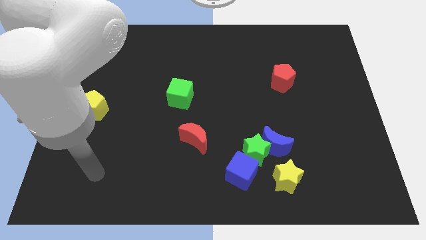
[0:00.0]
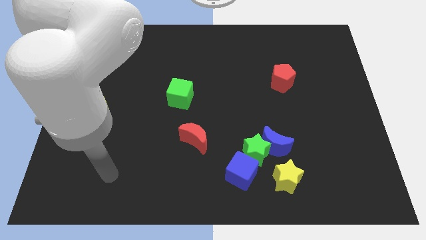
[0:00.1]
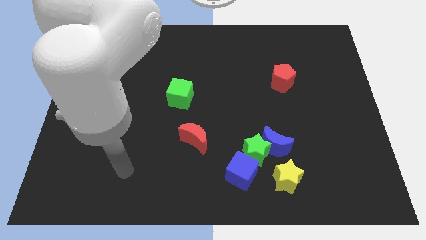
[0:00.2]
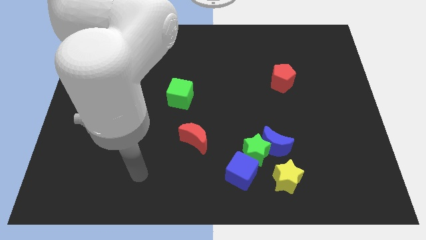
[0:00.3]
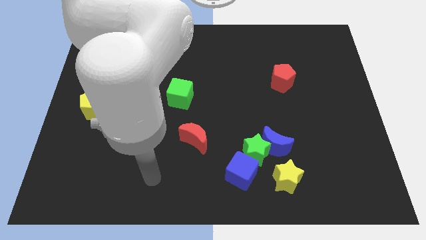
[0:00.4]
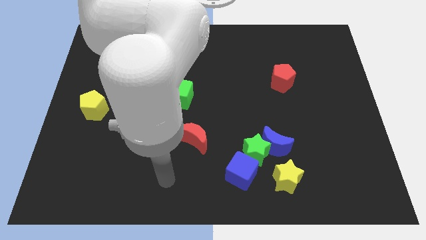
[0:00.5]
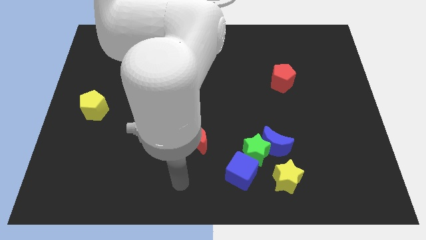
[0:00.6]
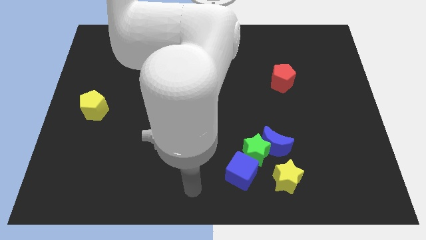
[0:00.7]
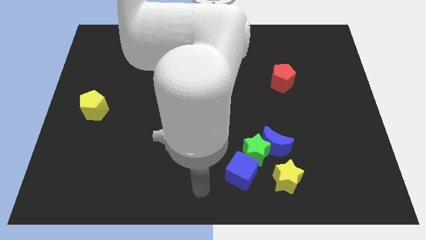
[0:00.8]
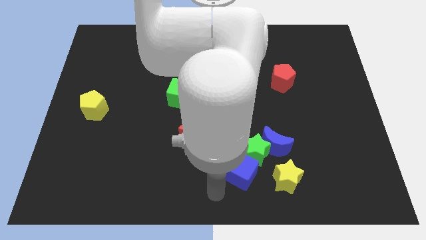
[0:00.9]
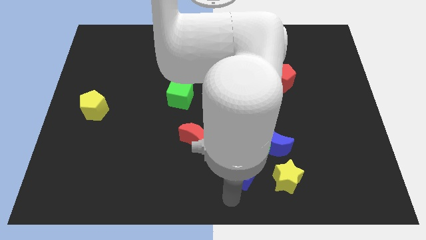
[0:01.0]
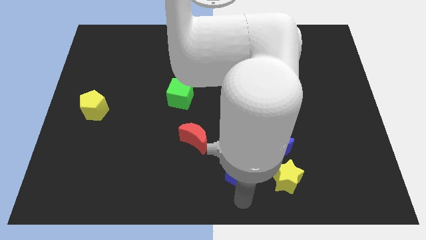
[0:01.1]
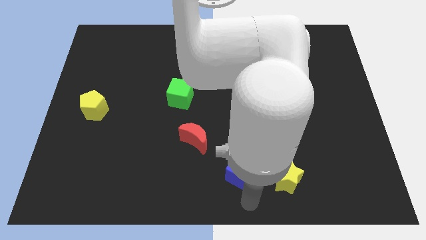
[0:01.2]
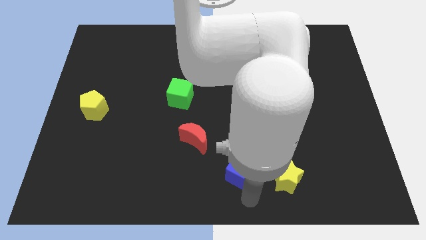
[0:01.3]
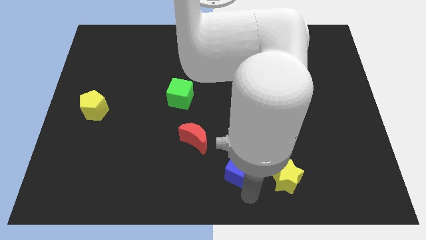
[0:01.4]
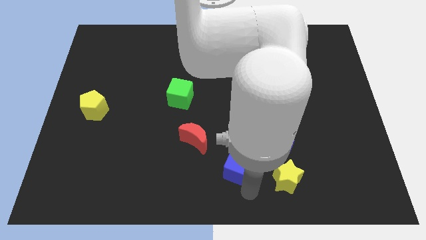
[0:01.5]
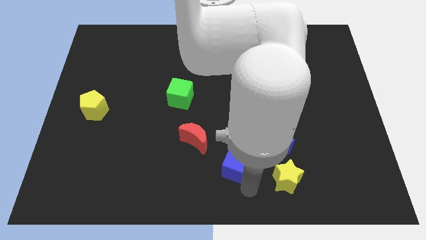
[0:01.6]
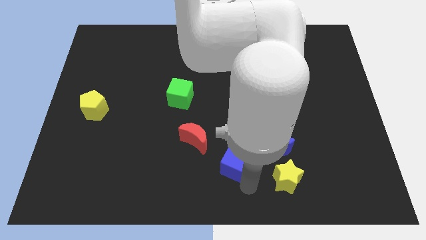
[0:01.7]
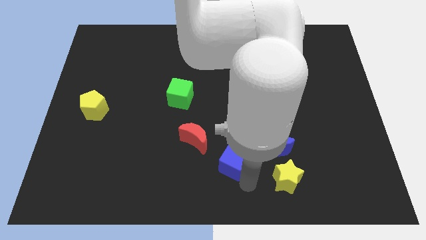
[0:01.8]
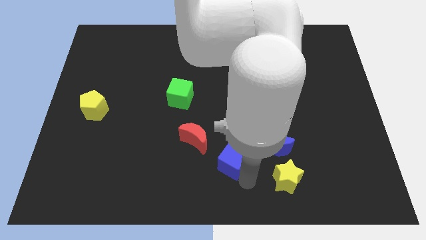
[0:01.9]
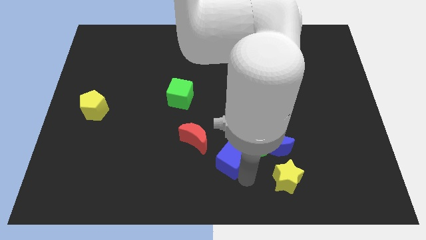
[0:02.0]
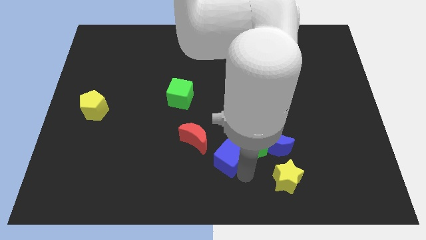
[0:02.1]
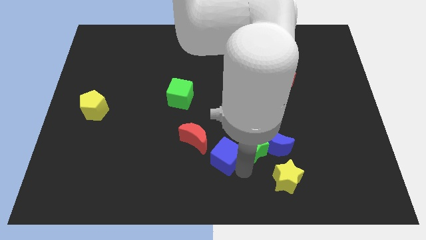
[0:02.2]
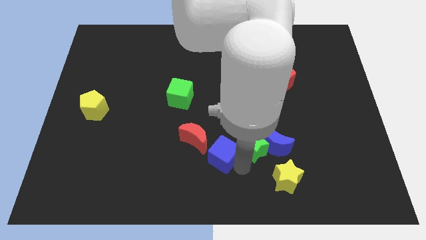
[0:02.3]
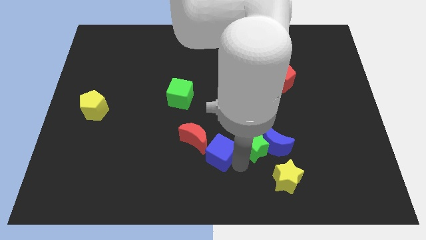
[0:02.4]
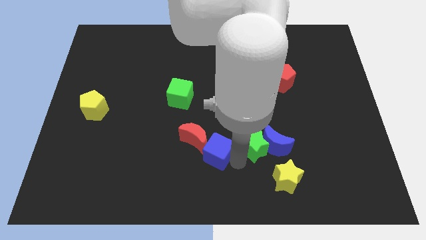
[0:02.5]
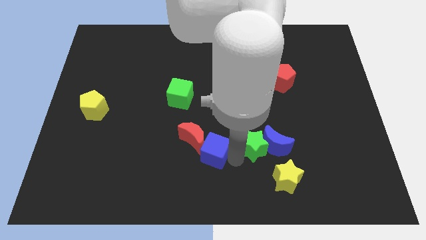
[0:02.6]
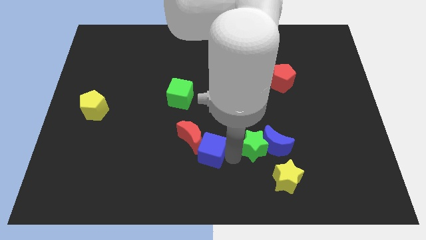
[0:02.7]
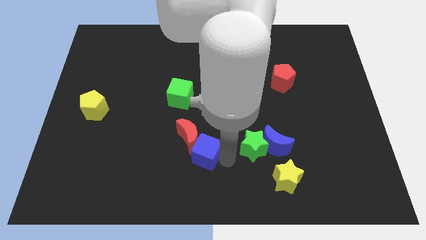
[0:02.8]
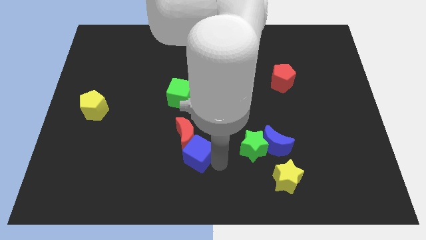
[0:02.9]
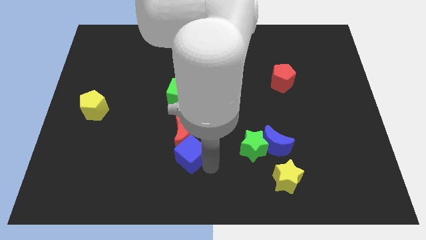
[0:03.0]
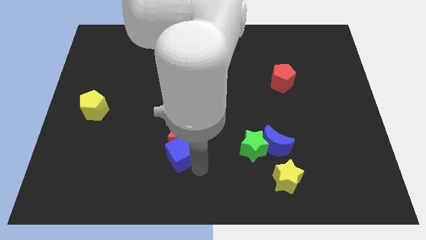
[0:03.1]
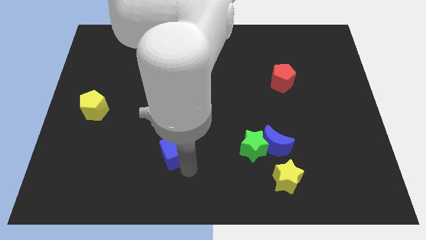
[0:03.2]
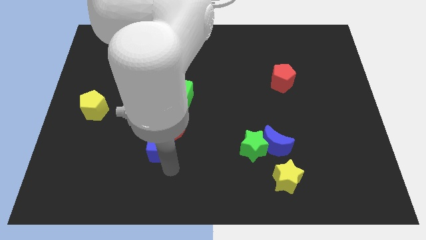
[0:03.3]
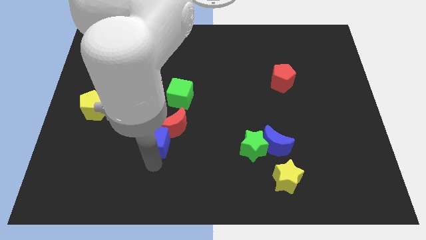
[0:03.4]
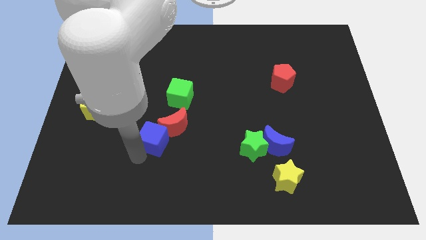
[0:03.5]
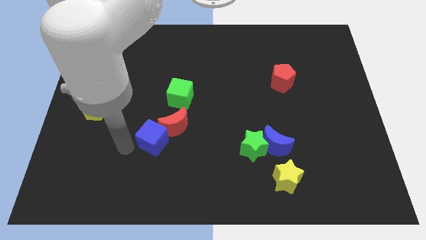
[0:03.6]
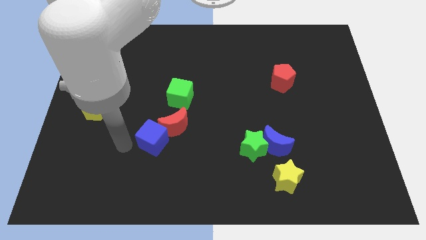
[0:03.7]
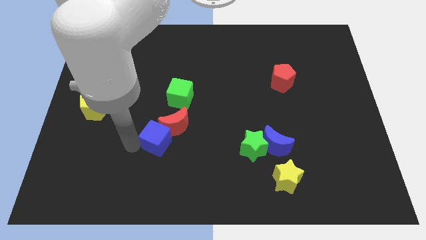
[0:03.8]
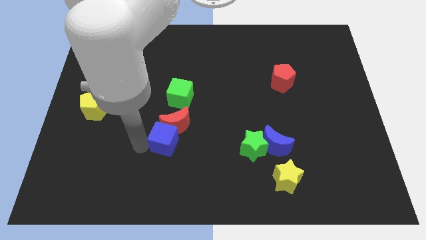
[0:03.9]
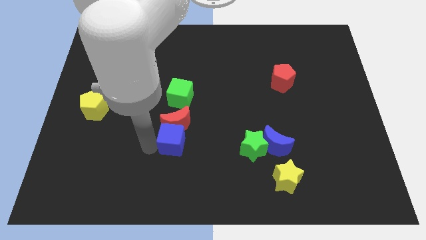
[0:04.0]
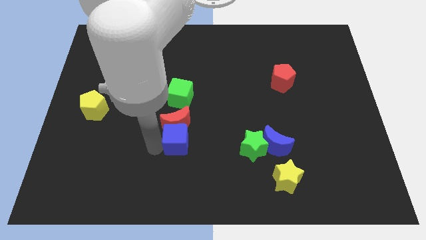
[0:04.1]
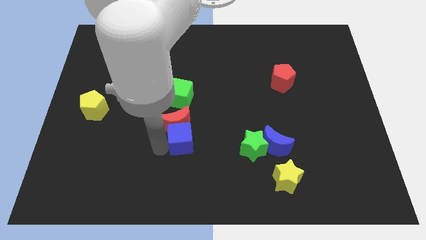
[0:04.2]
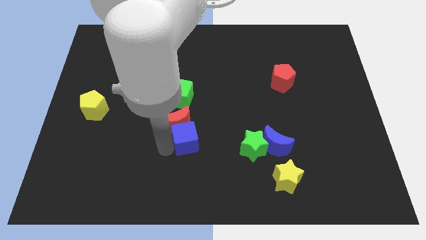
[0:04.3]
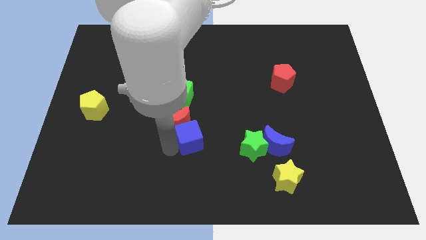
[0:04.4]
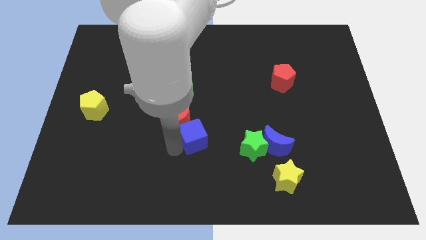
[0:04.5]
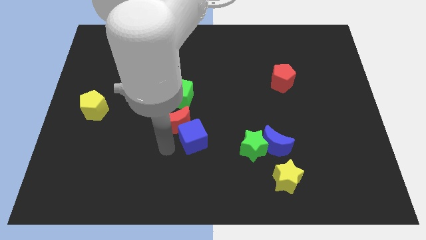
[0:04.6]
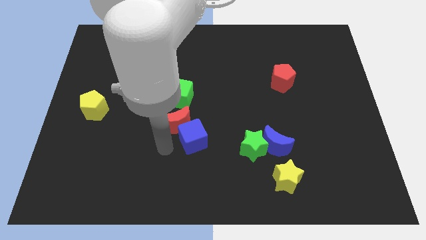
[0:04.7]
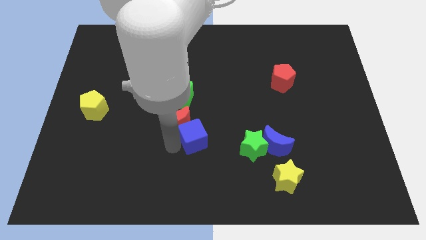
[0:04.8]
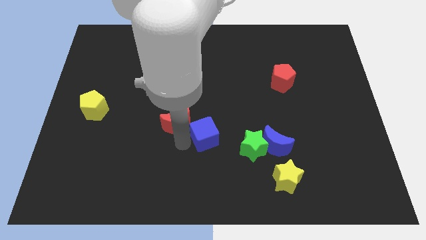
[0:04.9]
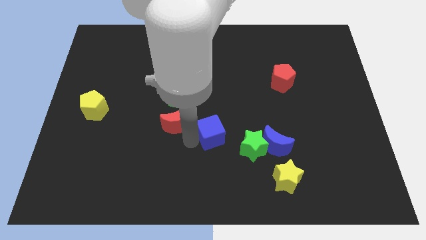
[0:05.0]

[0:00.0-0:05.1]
push the blue cube to the top left of the green star

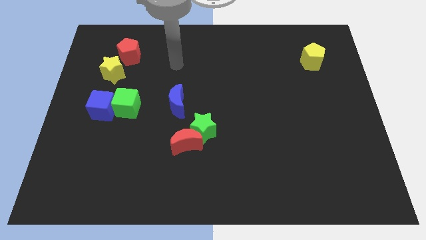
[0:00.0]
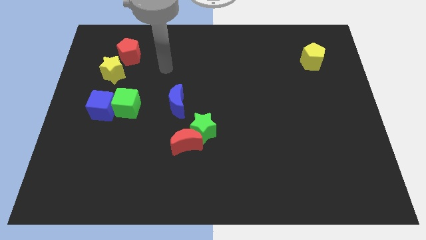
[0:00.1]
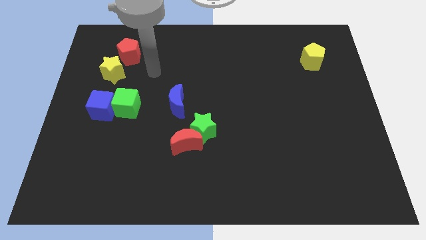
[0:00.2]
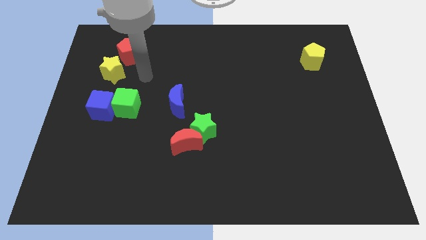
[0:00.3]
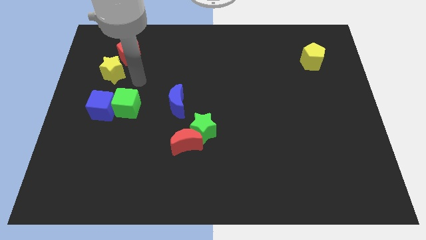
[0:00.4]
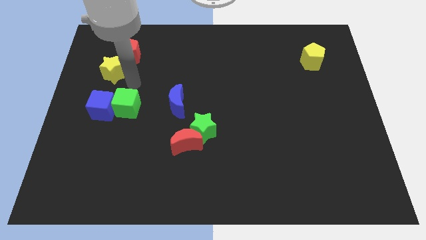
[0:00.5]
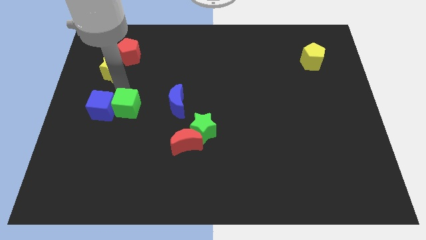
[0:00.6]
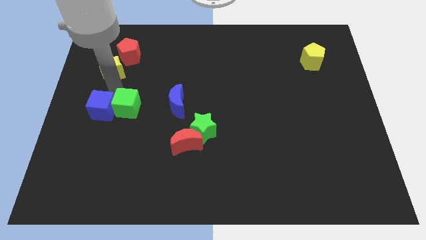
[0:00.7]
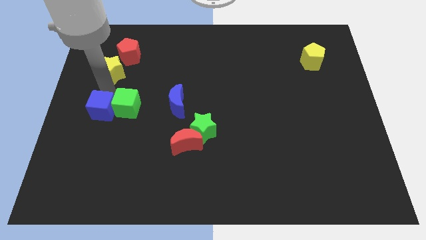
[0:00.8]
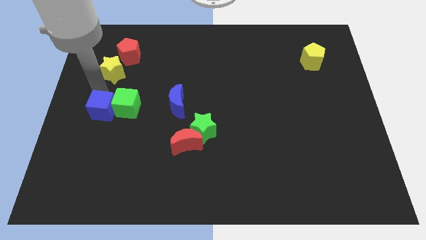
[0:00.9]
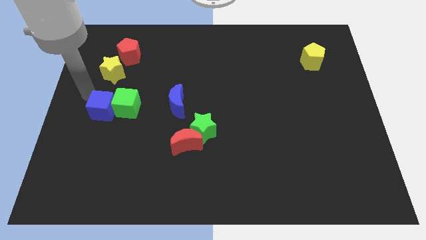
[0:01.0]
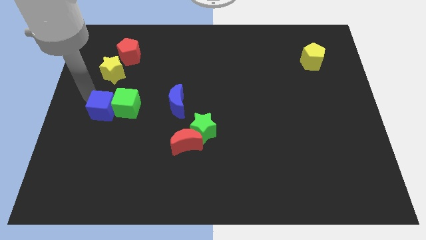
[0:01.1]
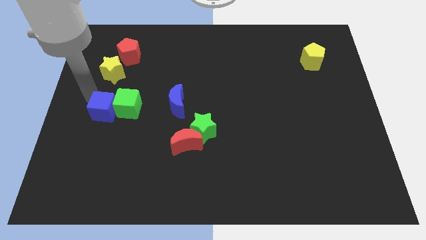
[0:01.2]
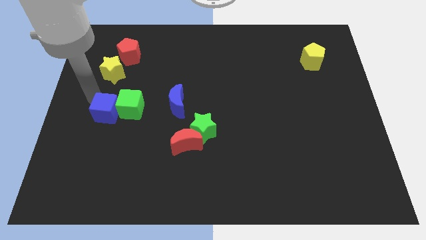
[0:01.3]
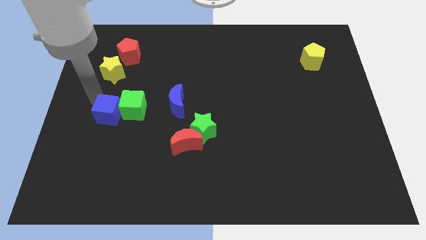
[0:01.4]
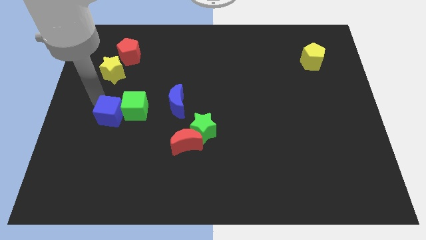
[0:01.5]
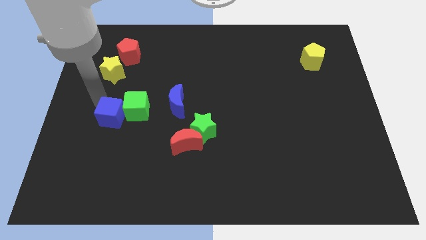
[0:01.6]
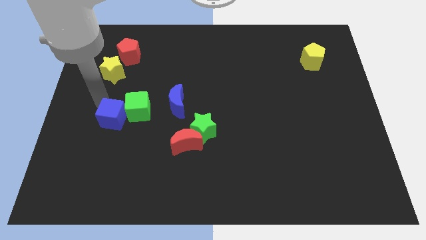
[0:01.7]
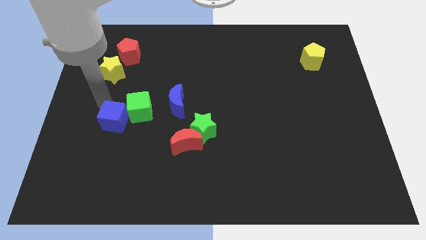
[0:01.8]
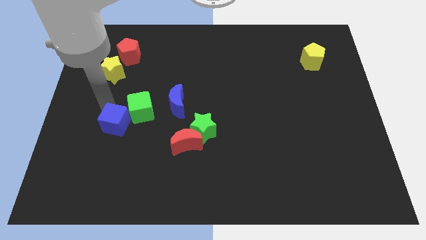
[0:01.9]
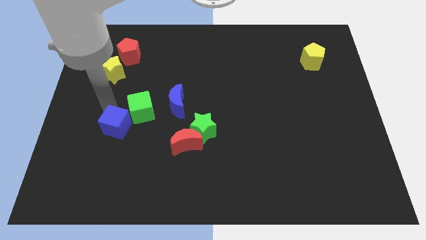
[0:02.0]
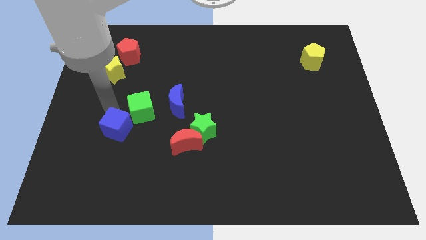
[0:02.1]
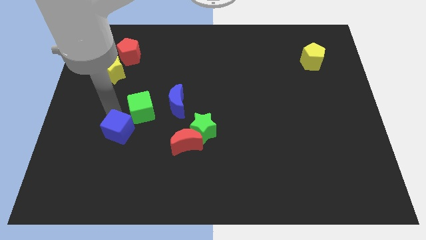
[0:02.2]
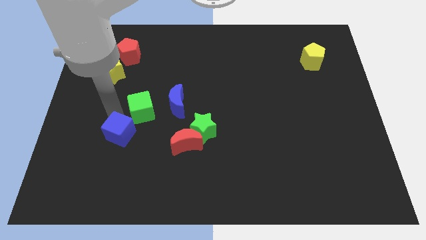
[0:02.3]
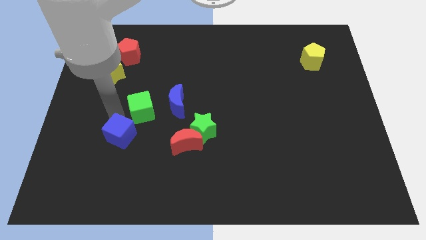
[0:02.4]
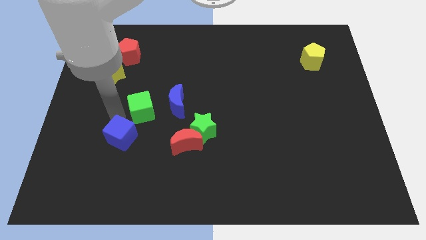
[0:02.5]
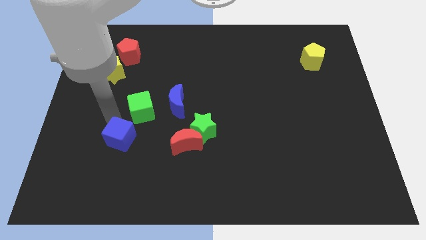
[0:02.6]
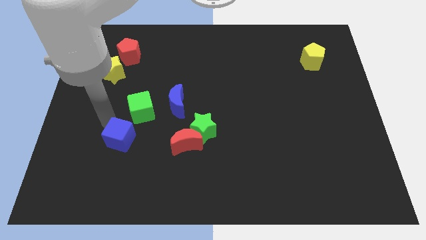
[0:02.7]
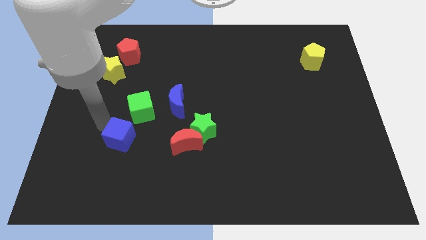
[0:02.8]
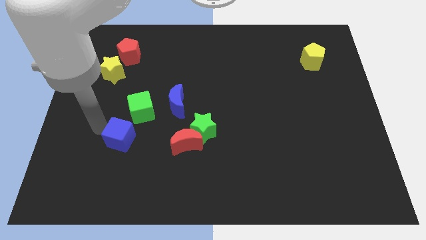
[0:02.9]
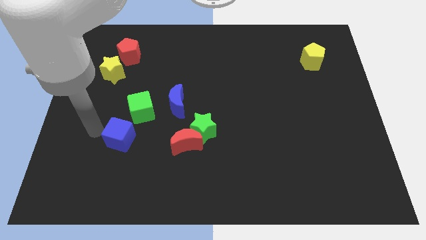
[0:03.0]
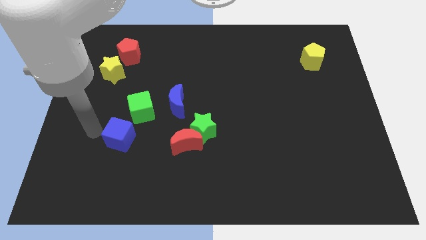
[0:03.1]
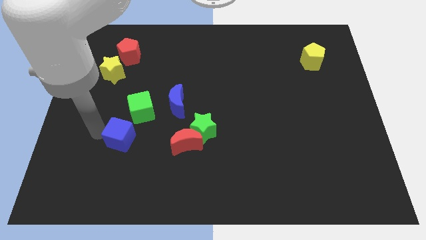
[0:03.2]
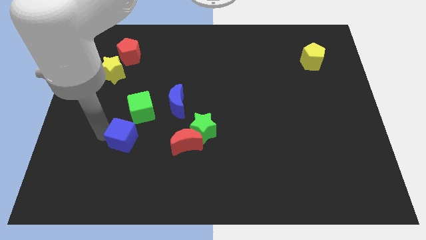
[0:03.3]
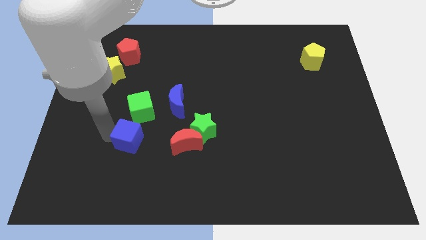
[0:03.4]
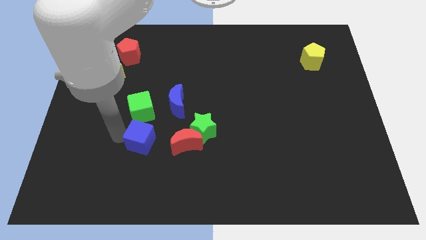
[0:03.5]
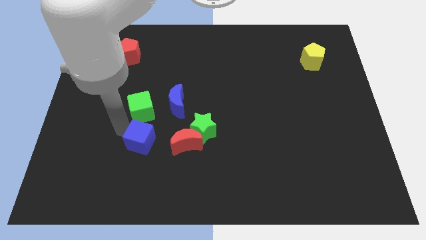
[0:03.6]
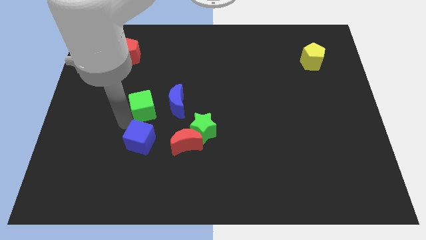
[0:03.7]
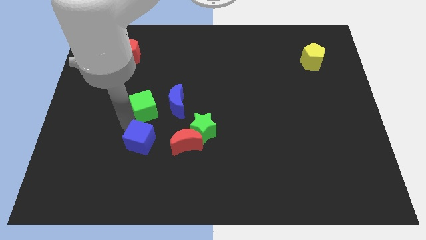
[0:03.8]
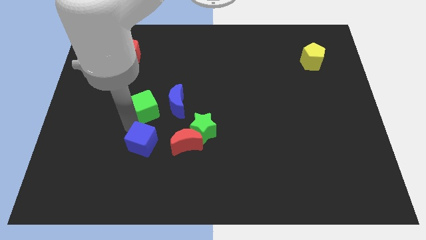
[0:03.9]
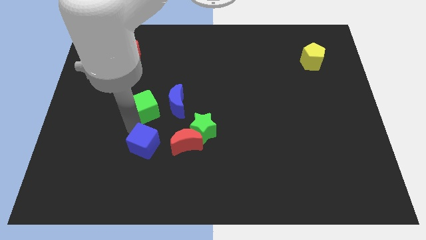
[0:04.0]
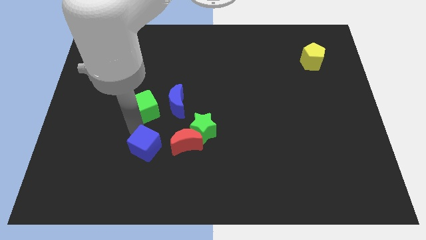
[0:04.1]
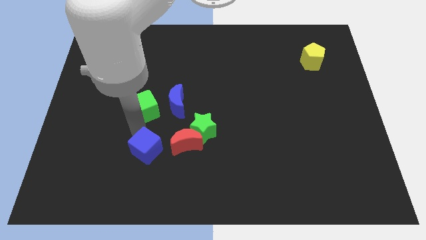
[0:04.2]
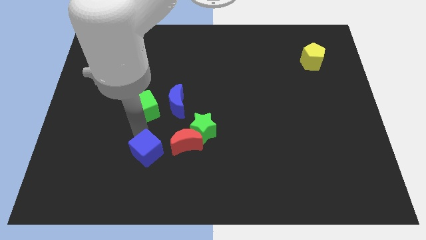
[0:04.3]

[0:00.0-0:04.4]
put the blue cube diagonally down and to the left of the red moon
